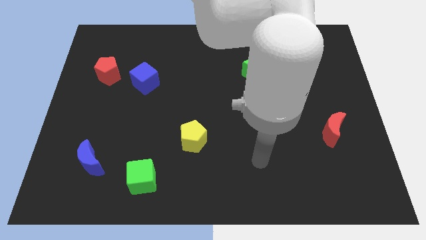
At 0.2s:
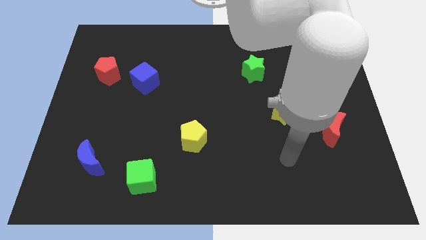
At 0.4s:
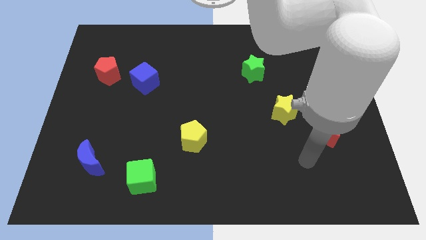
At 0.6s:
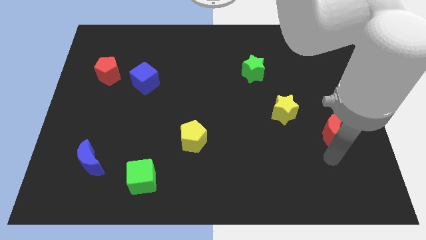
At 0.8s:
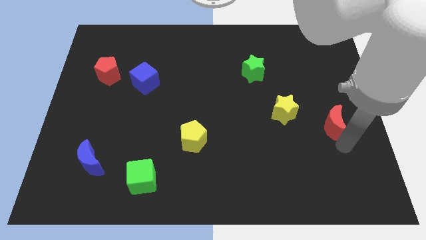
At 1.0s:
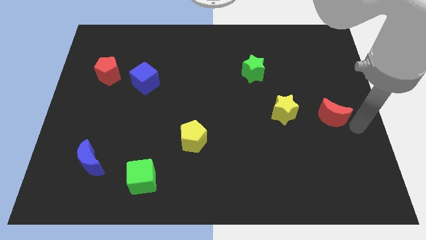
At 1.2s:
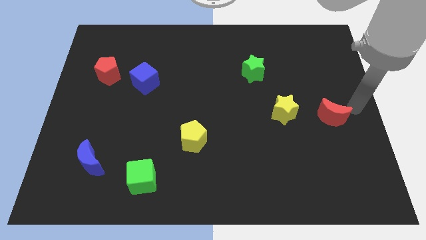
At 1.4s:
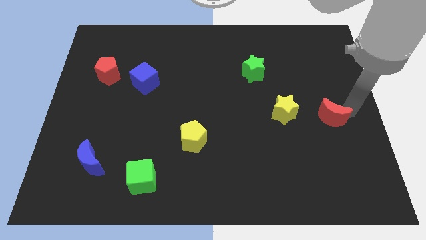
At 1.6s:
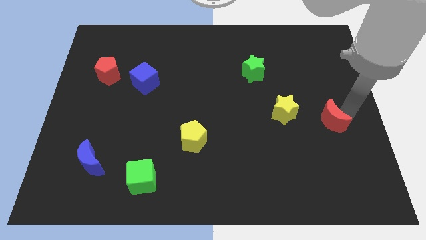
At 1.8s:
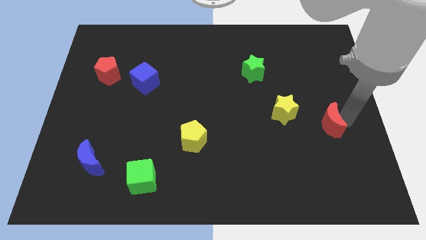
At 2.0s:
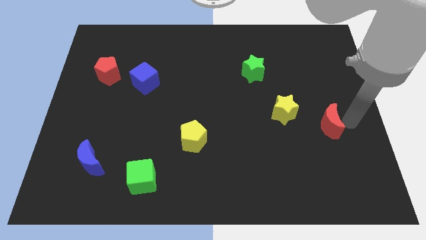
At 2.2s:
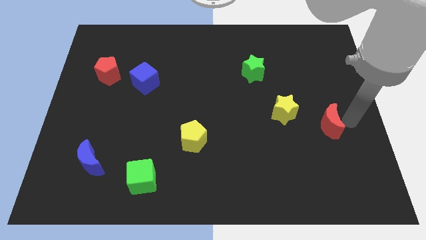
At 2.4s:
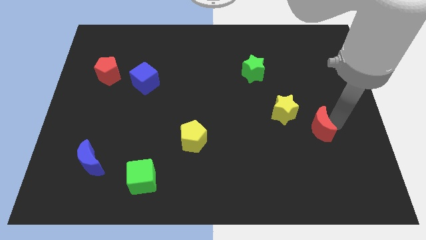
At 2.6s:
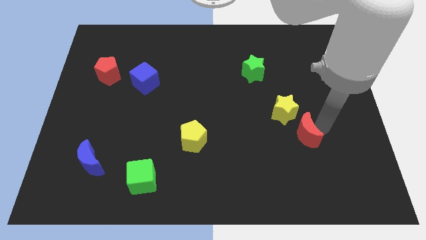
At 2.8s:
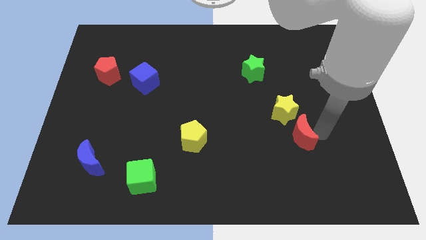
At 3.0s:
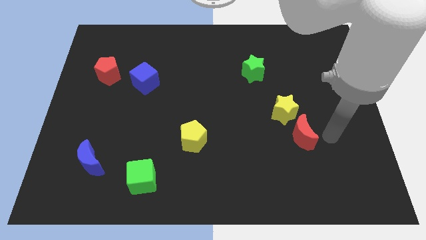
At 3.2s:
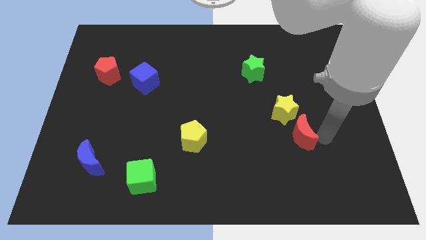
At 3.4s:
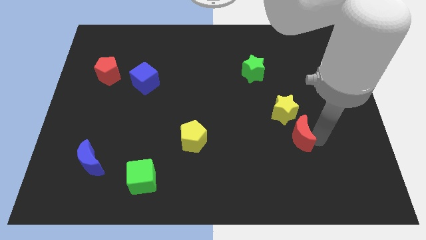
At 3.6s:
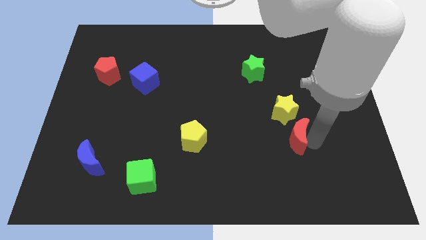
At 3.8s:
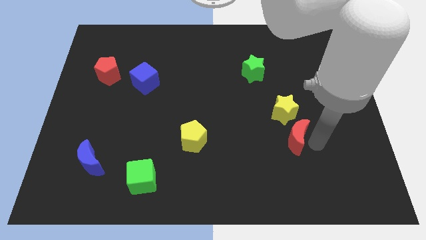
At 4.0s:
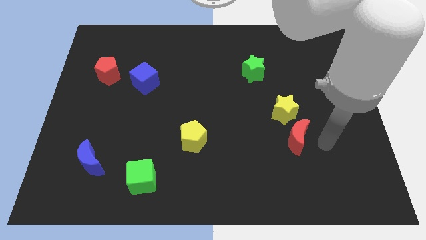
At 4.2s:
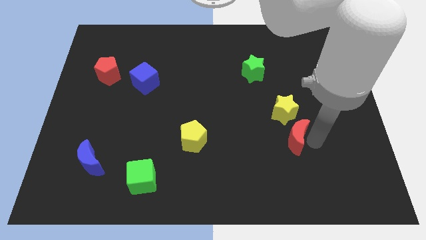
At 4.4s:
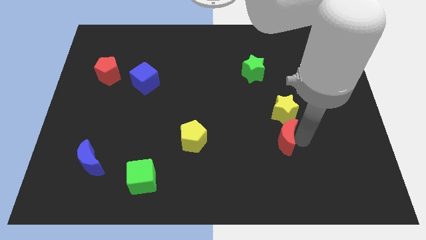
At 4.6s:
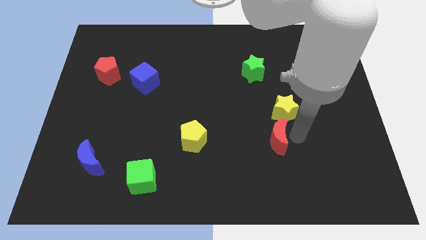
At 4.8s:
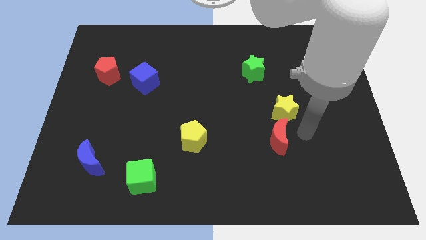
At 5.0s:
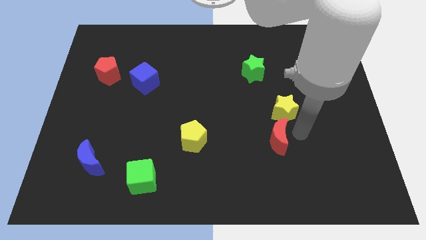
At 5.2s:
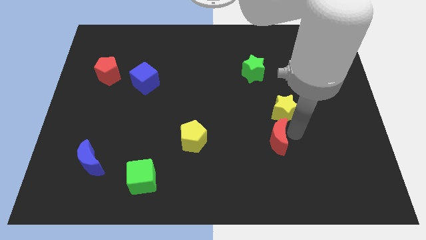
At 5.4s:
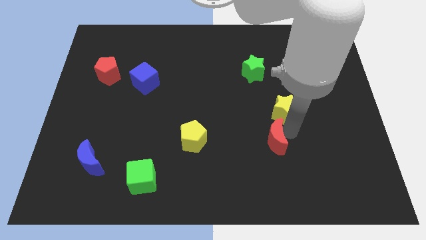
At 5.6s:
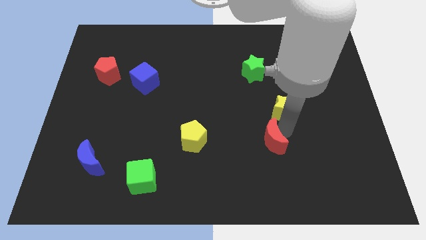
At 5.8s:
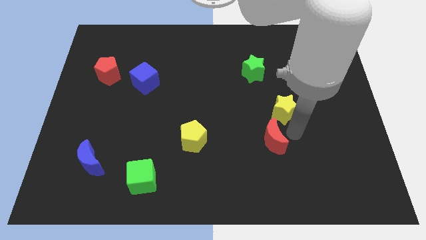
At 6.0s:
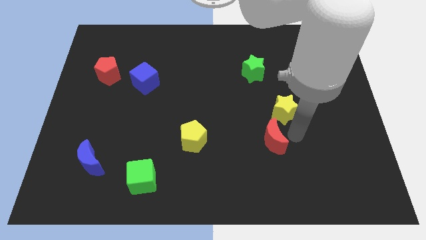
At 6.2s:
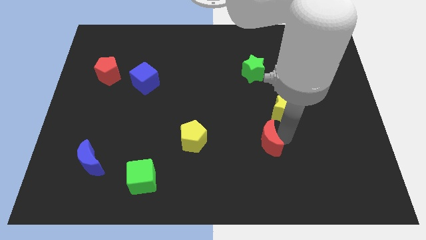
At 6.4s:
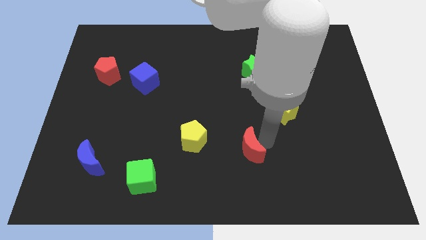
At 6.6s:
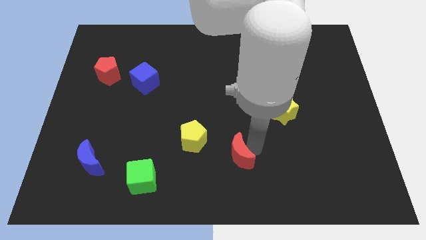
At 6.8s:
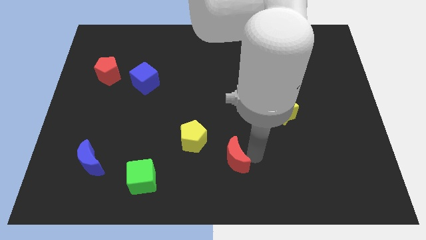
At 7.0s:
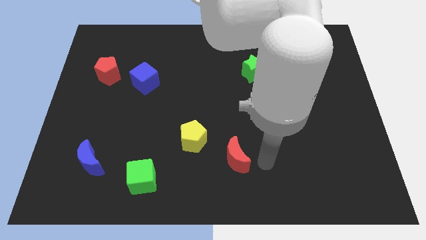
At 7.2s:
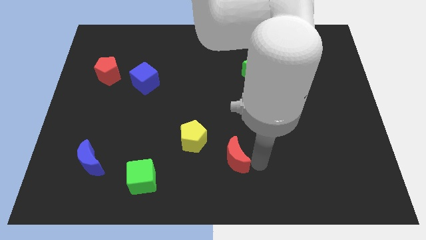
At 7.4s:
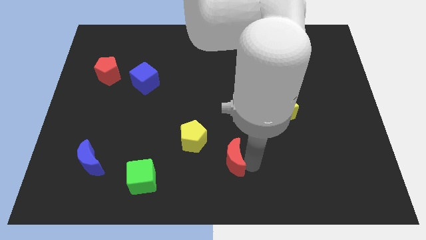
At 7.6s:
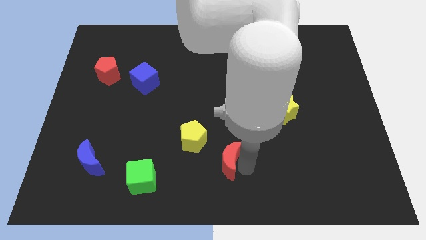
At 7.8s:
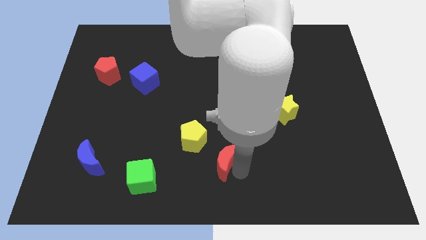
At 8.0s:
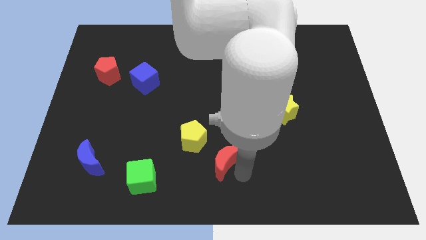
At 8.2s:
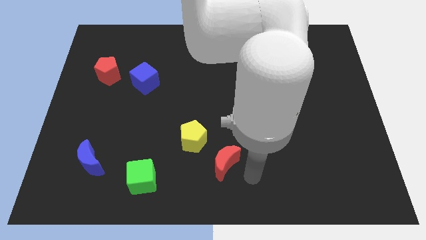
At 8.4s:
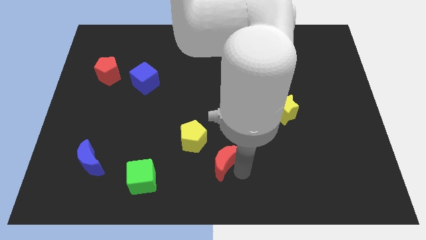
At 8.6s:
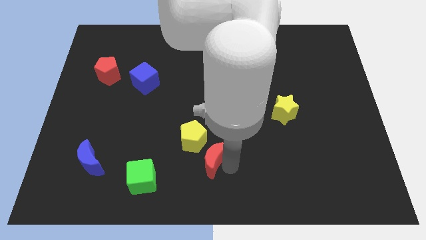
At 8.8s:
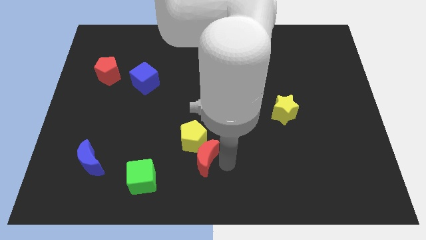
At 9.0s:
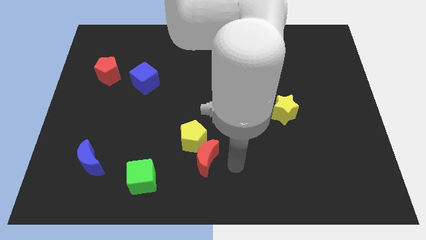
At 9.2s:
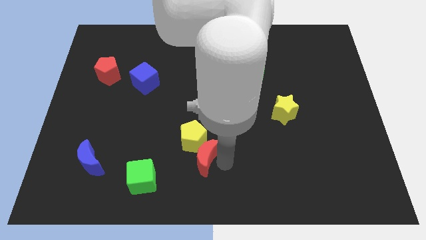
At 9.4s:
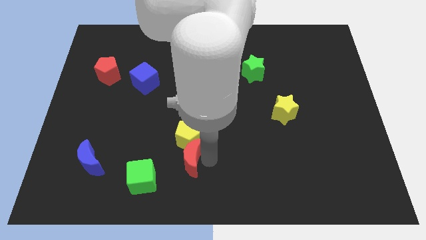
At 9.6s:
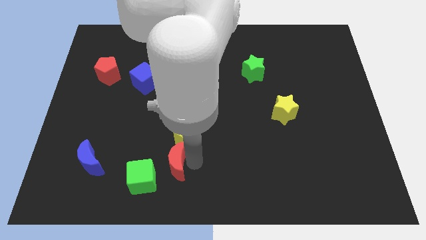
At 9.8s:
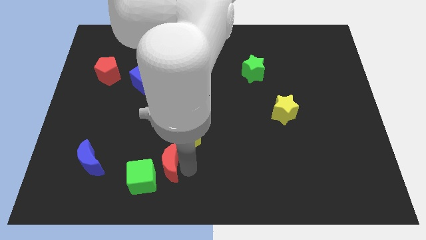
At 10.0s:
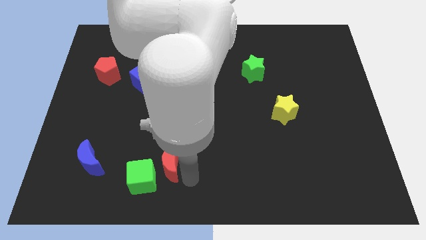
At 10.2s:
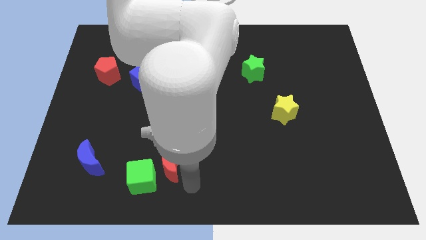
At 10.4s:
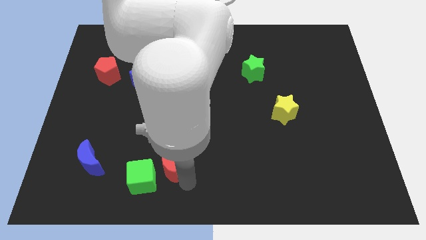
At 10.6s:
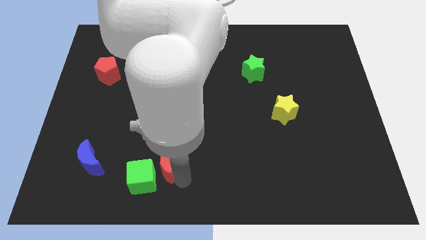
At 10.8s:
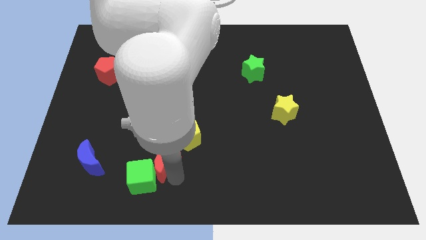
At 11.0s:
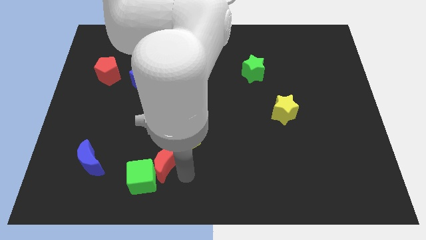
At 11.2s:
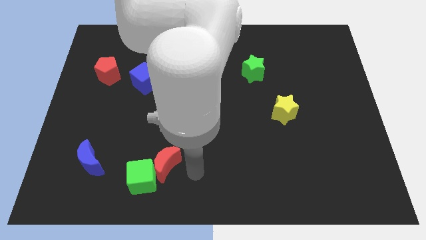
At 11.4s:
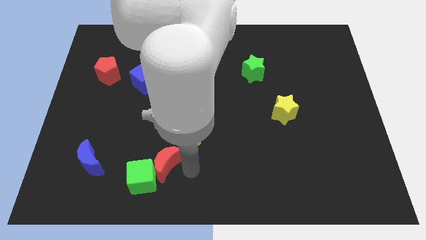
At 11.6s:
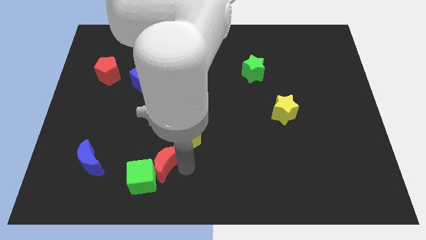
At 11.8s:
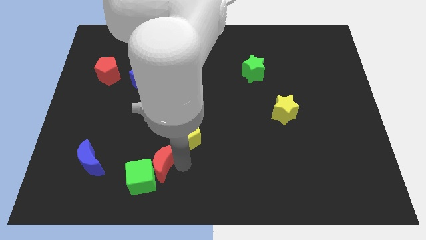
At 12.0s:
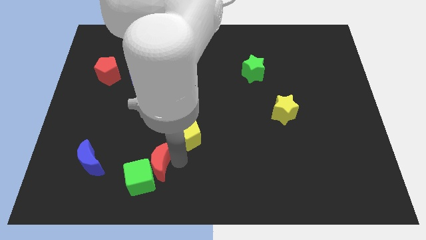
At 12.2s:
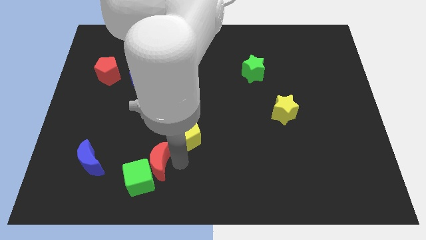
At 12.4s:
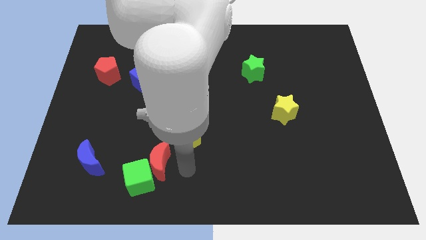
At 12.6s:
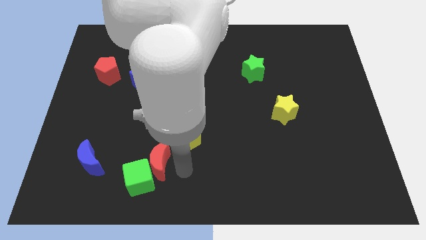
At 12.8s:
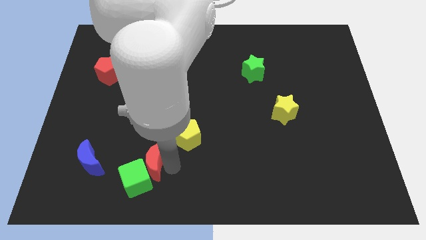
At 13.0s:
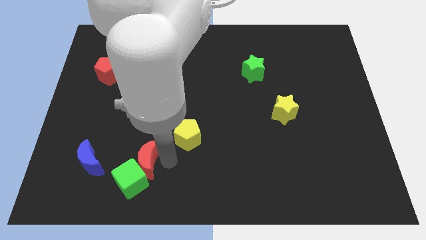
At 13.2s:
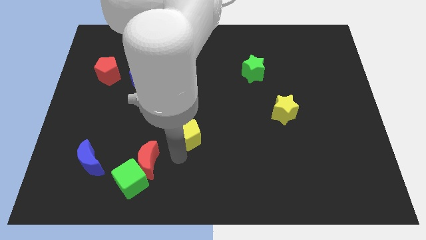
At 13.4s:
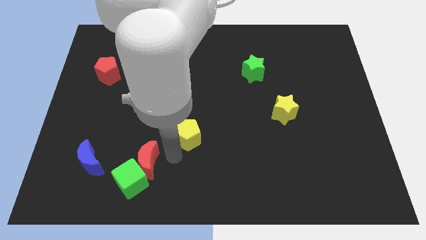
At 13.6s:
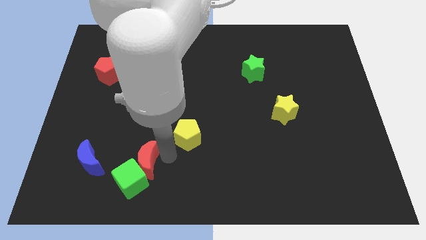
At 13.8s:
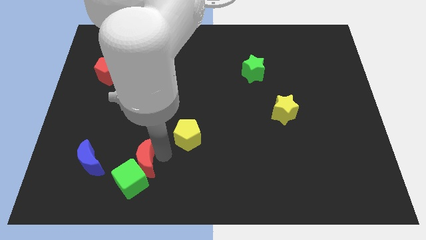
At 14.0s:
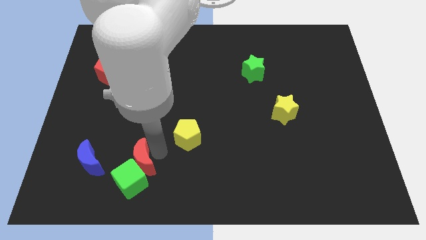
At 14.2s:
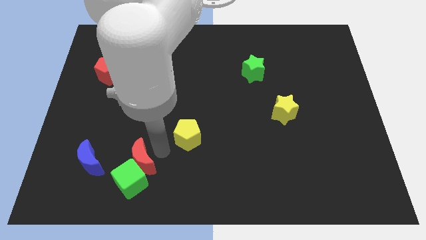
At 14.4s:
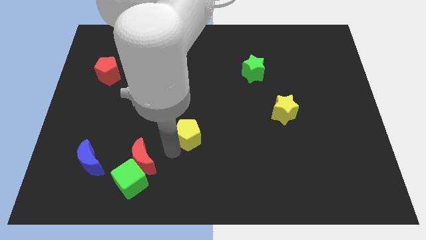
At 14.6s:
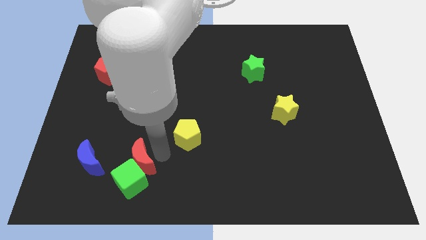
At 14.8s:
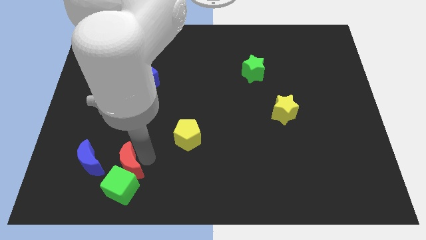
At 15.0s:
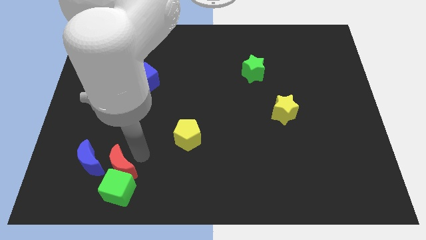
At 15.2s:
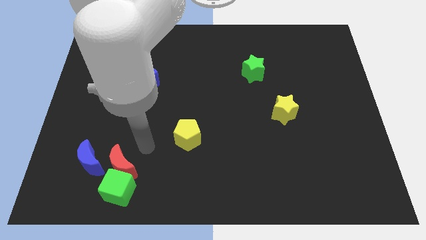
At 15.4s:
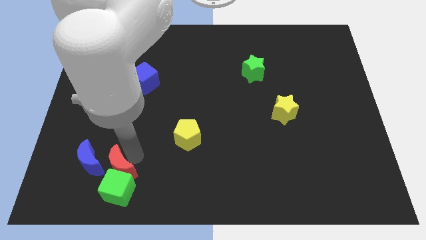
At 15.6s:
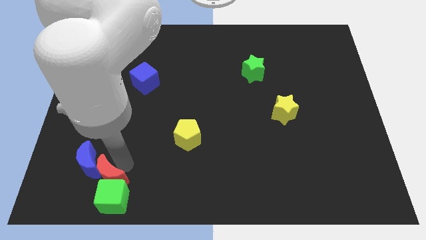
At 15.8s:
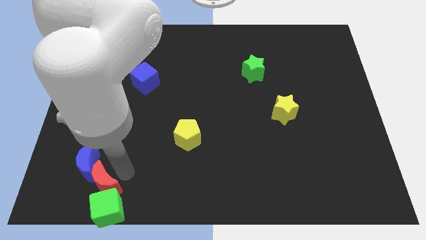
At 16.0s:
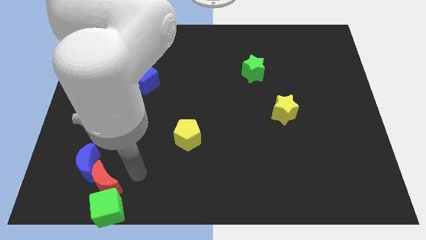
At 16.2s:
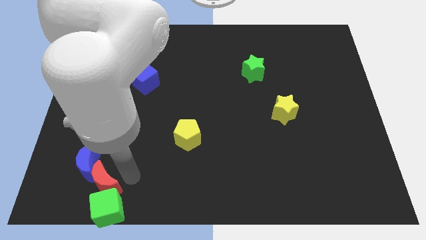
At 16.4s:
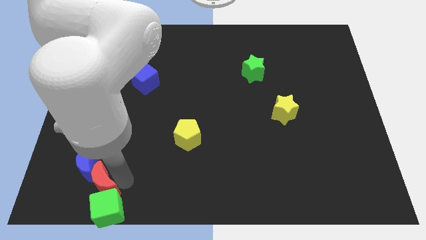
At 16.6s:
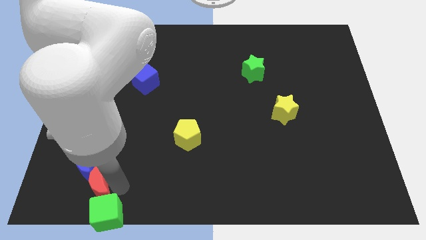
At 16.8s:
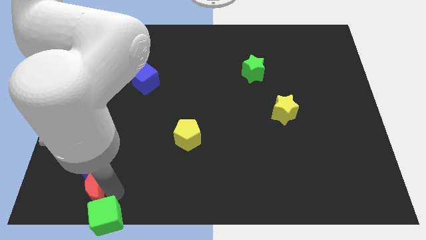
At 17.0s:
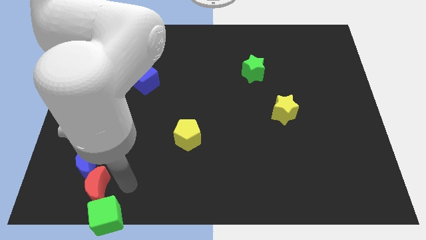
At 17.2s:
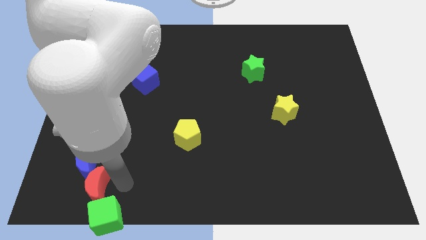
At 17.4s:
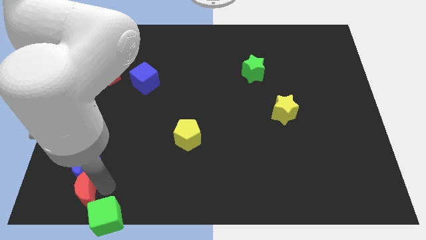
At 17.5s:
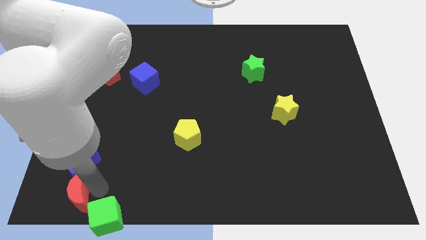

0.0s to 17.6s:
push the red moon to the lower left corner
